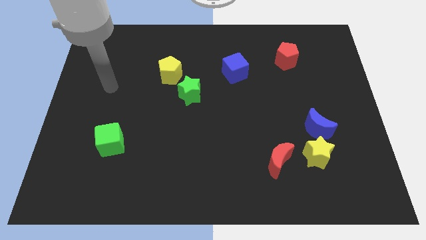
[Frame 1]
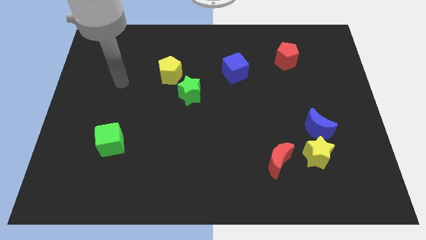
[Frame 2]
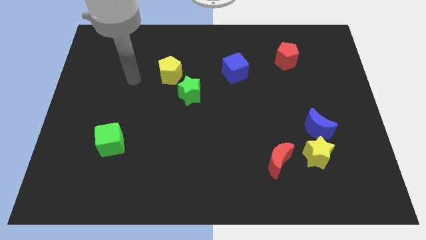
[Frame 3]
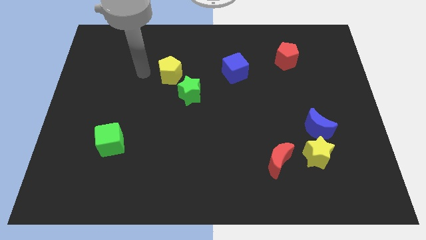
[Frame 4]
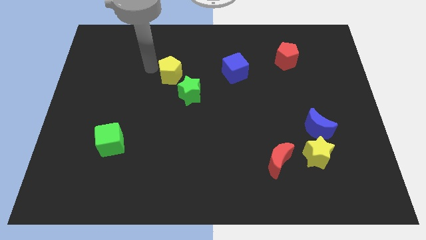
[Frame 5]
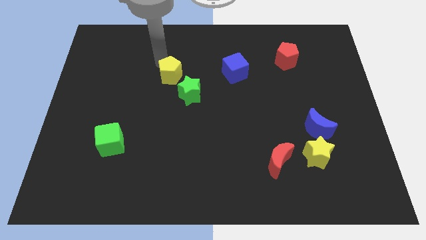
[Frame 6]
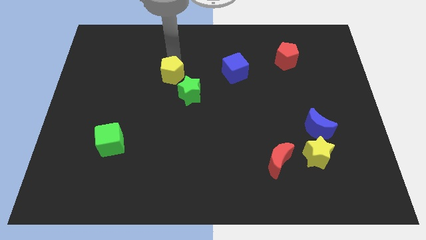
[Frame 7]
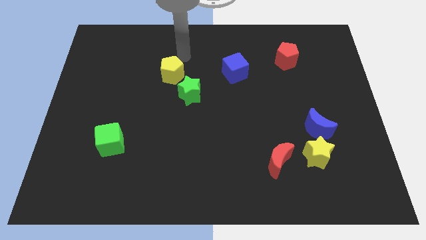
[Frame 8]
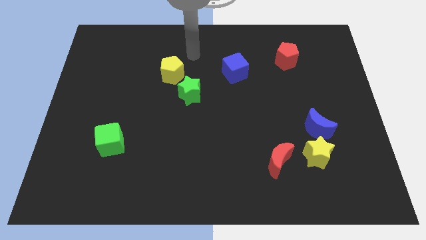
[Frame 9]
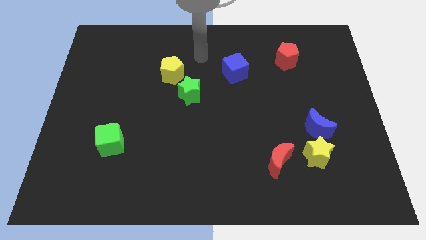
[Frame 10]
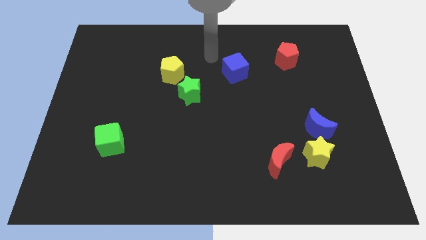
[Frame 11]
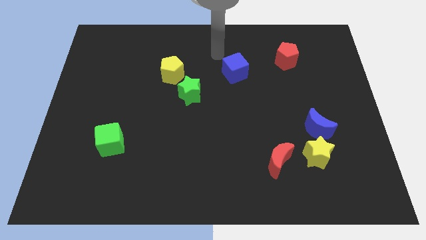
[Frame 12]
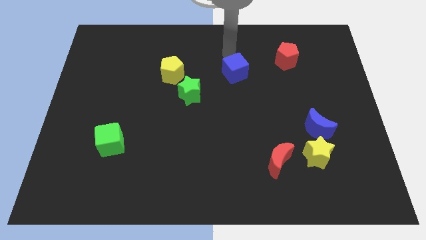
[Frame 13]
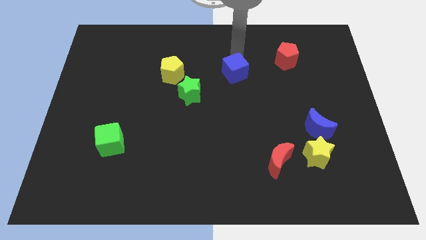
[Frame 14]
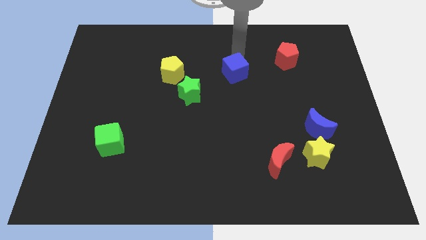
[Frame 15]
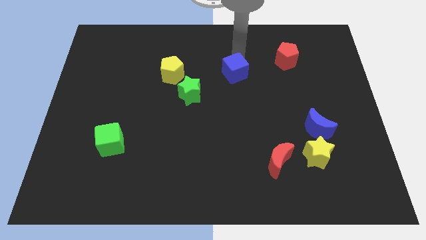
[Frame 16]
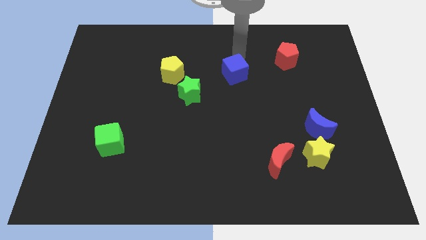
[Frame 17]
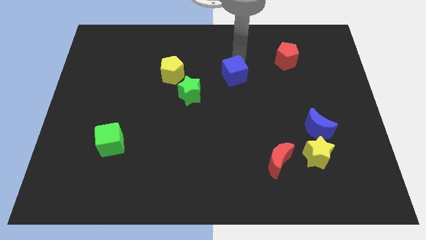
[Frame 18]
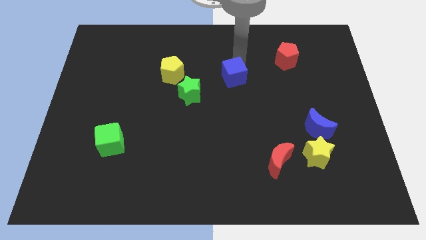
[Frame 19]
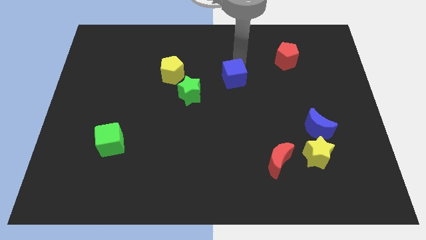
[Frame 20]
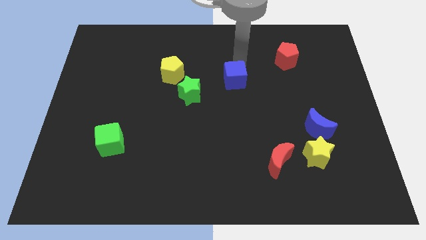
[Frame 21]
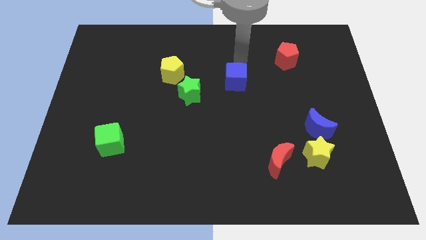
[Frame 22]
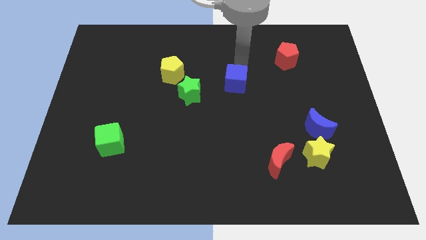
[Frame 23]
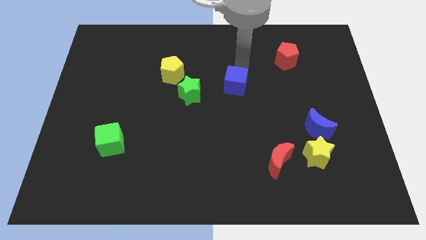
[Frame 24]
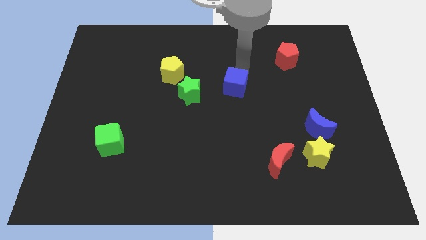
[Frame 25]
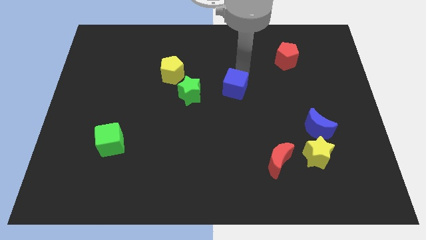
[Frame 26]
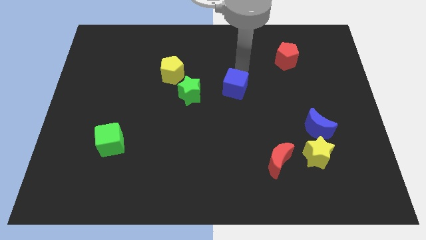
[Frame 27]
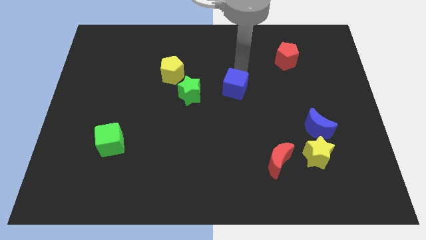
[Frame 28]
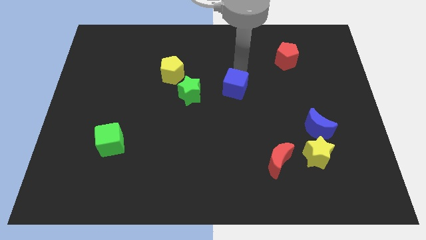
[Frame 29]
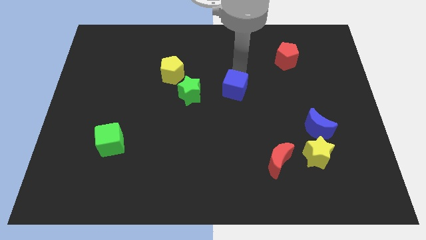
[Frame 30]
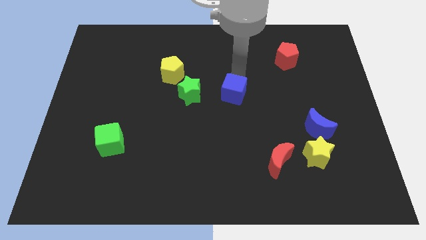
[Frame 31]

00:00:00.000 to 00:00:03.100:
push the blue cube a little down

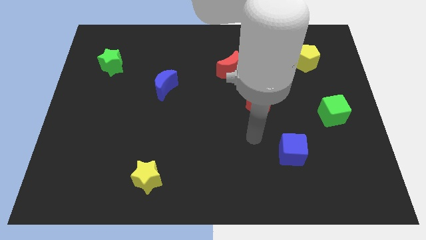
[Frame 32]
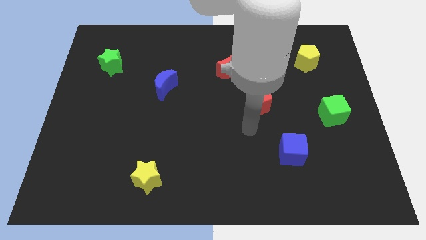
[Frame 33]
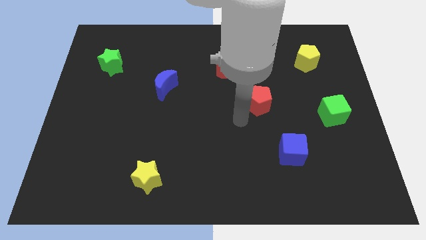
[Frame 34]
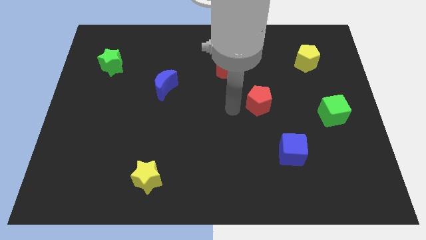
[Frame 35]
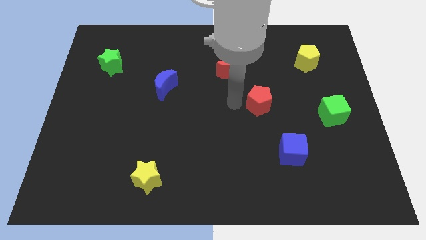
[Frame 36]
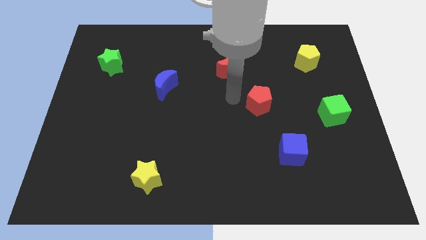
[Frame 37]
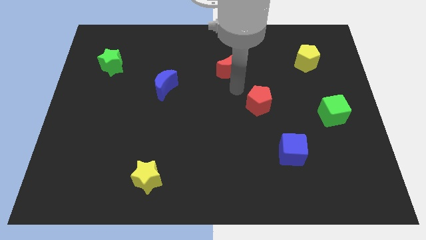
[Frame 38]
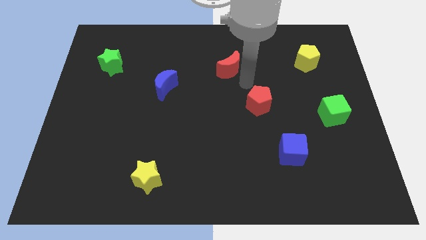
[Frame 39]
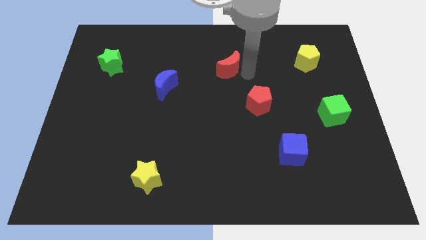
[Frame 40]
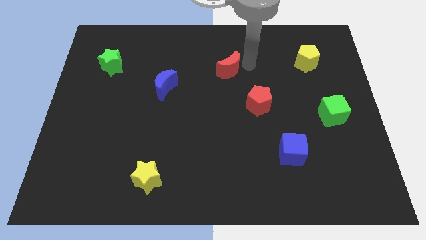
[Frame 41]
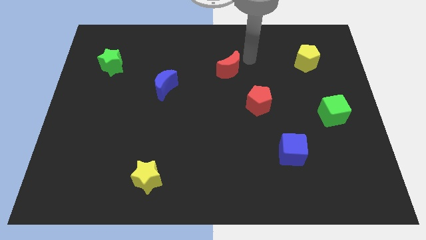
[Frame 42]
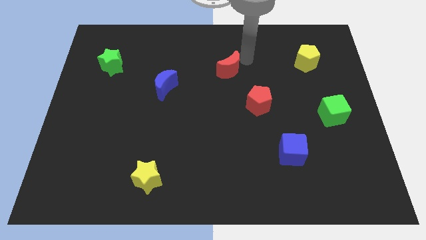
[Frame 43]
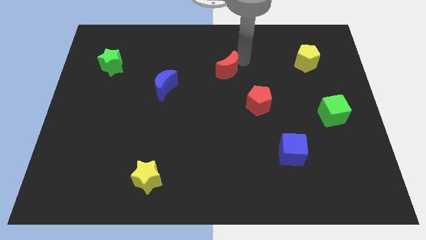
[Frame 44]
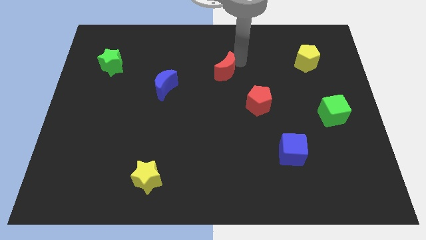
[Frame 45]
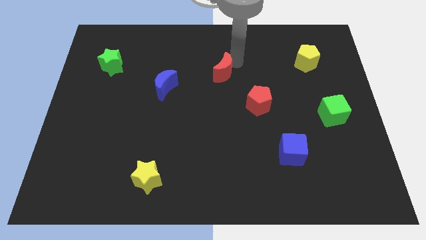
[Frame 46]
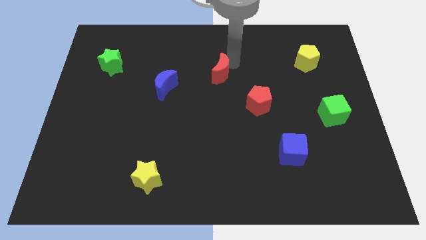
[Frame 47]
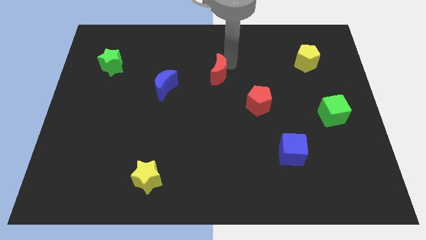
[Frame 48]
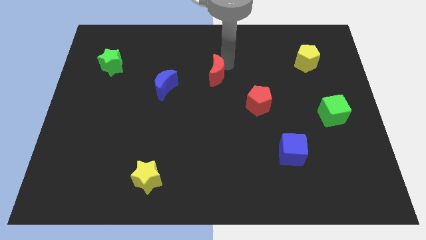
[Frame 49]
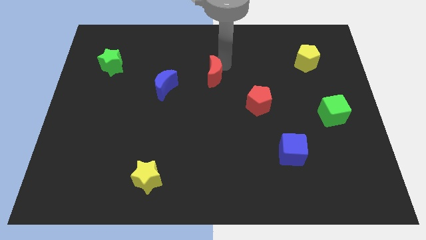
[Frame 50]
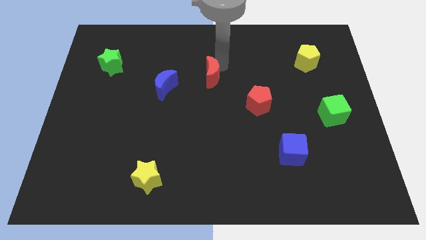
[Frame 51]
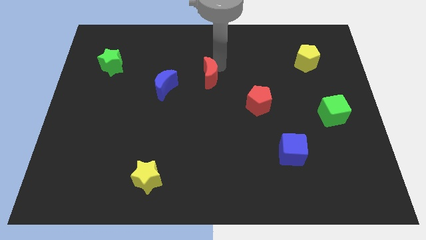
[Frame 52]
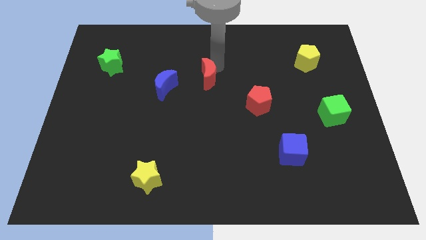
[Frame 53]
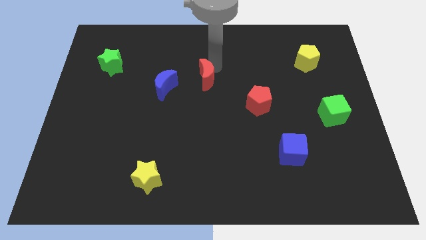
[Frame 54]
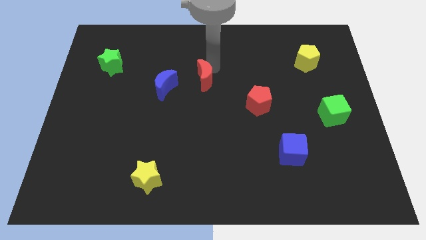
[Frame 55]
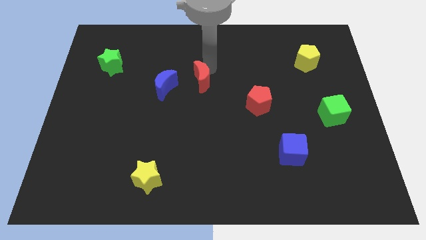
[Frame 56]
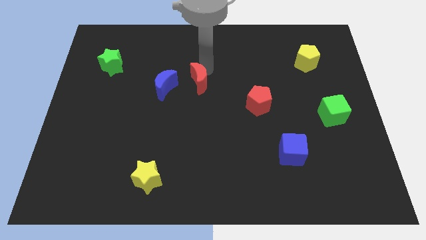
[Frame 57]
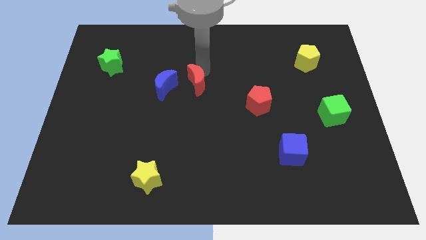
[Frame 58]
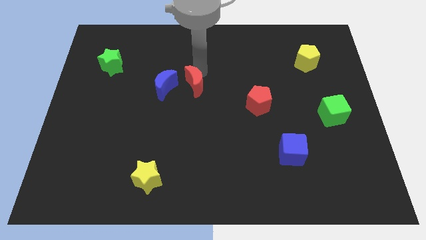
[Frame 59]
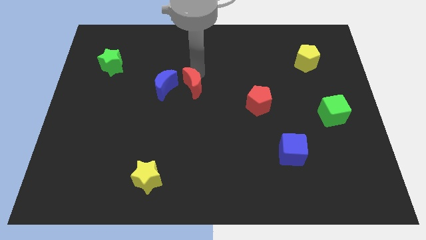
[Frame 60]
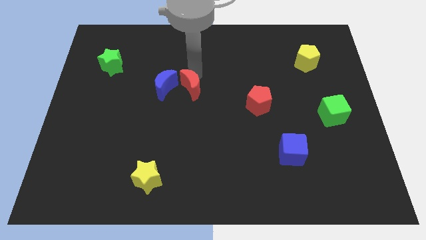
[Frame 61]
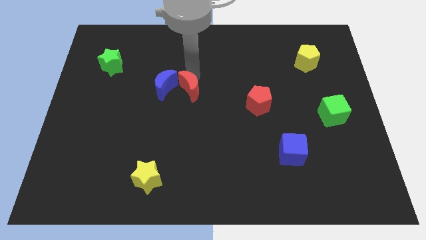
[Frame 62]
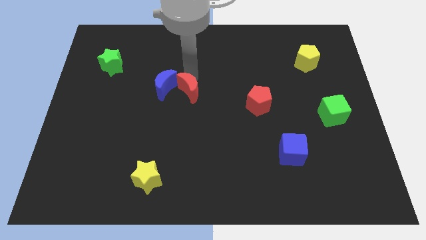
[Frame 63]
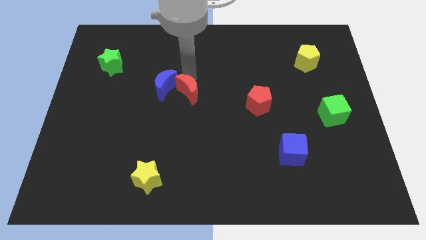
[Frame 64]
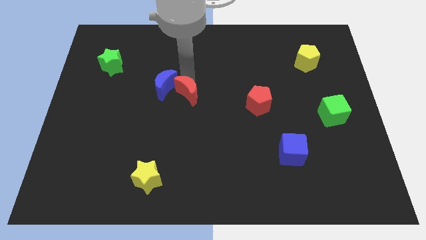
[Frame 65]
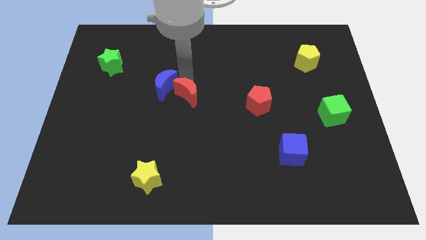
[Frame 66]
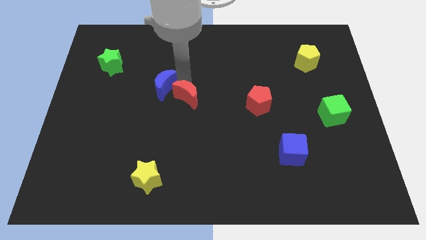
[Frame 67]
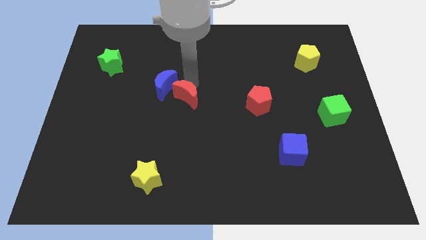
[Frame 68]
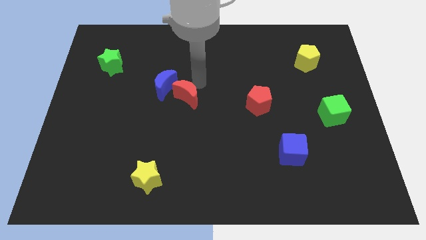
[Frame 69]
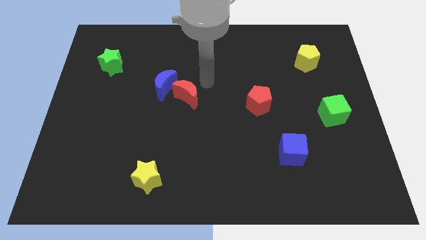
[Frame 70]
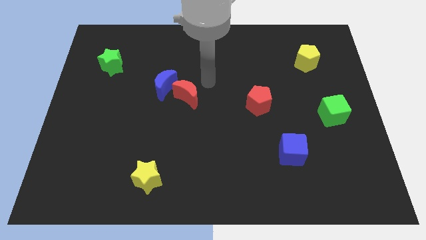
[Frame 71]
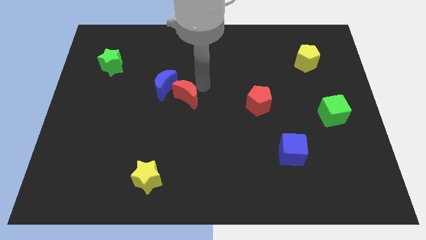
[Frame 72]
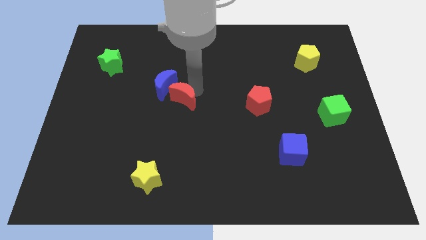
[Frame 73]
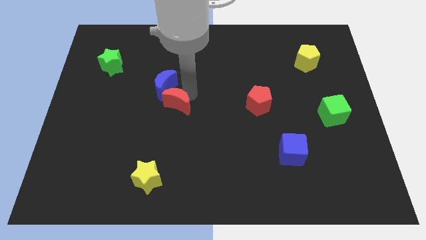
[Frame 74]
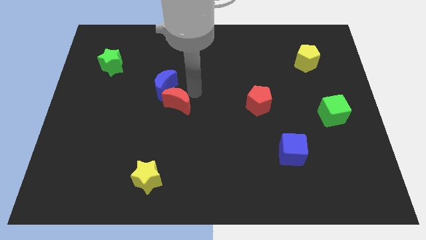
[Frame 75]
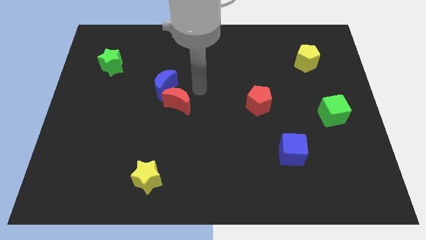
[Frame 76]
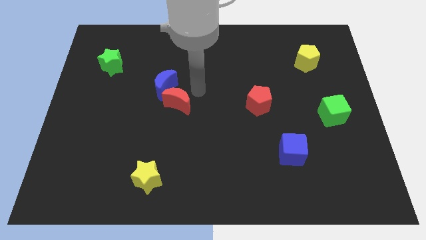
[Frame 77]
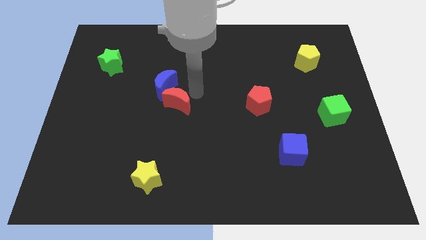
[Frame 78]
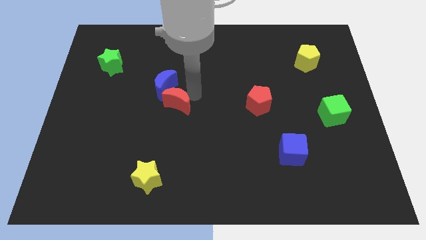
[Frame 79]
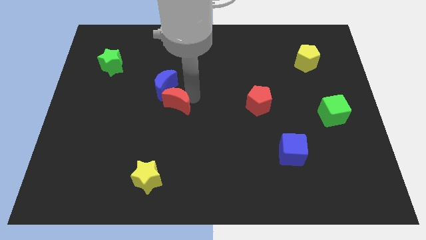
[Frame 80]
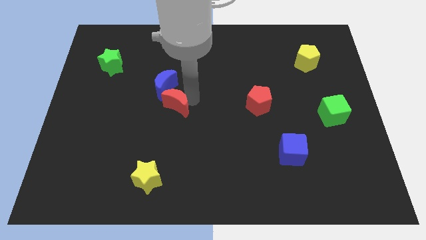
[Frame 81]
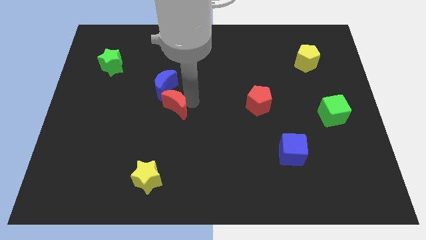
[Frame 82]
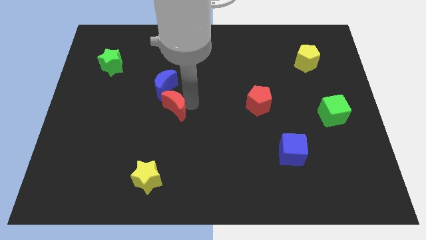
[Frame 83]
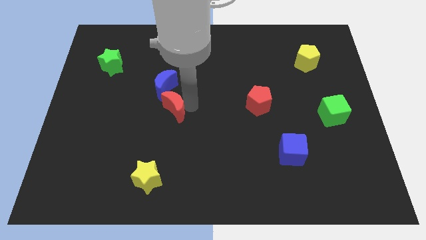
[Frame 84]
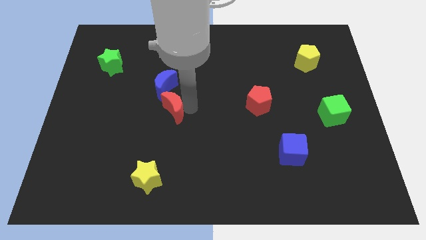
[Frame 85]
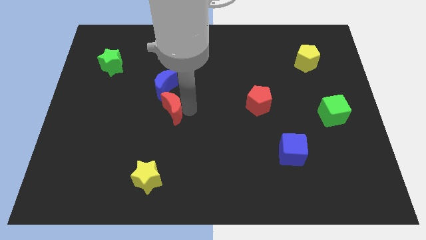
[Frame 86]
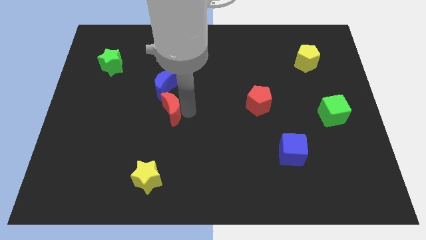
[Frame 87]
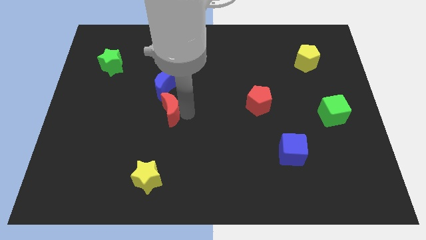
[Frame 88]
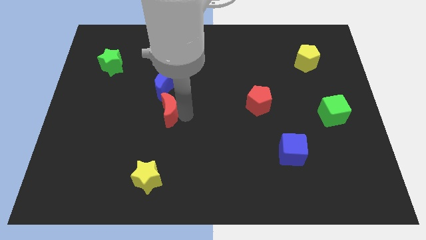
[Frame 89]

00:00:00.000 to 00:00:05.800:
move the red moon down and left diagonally
